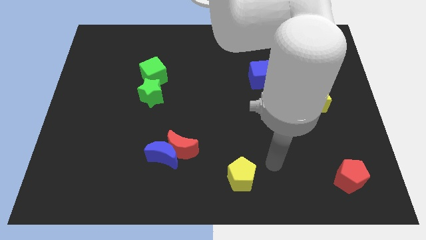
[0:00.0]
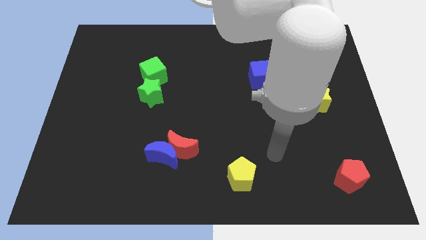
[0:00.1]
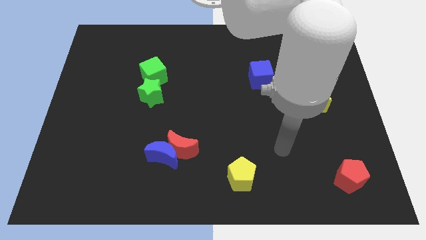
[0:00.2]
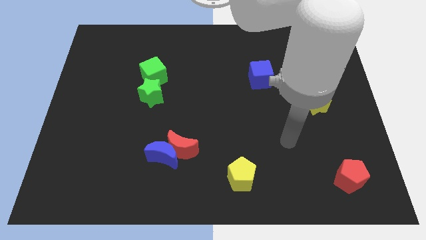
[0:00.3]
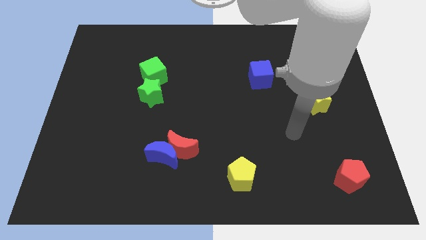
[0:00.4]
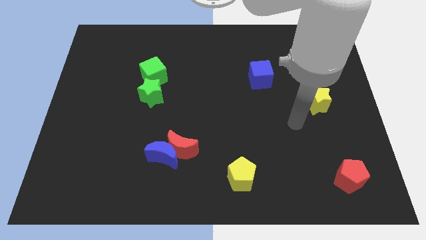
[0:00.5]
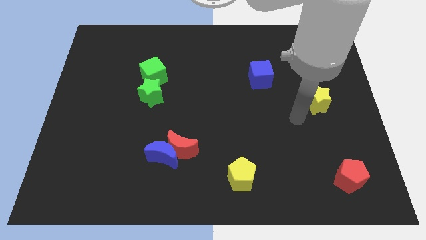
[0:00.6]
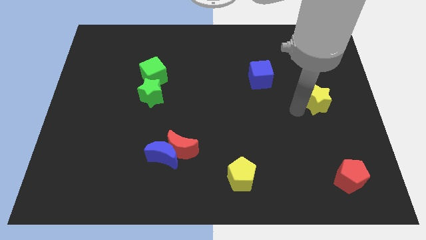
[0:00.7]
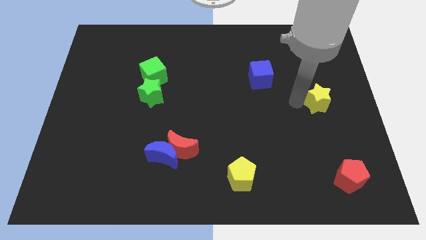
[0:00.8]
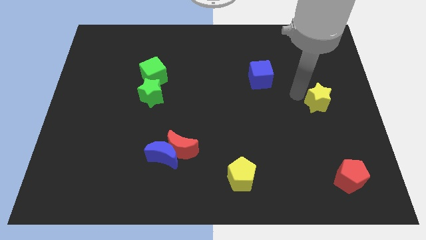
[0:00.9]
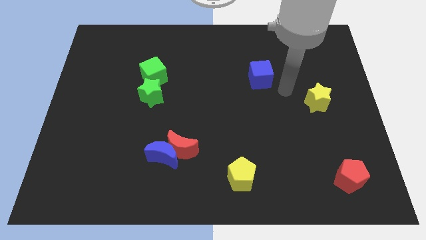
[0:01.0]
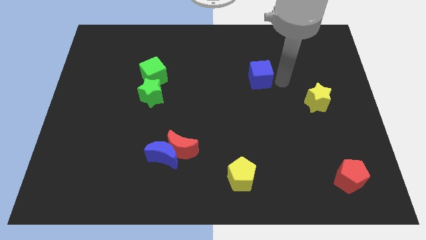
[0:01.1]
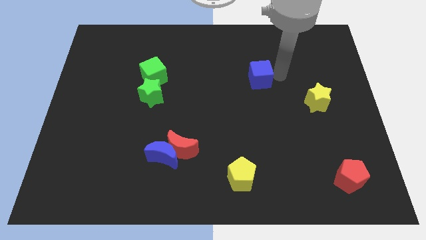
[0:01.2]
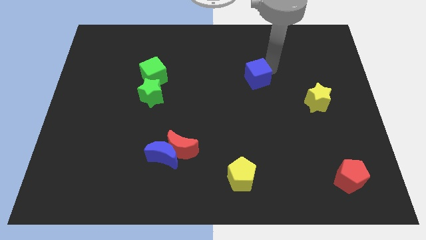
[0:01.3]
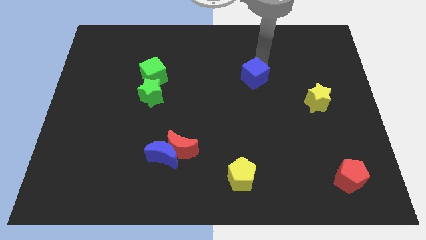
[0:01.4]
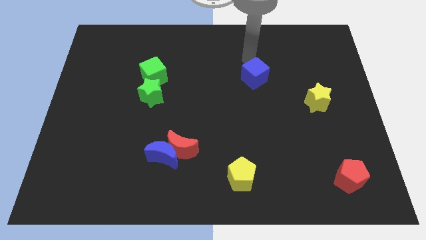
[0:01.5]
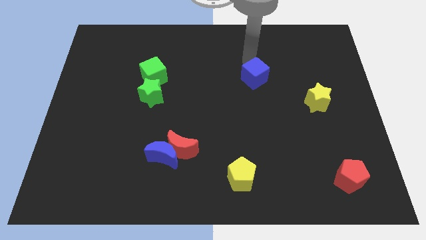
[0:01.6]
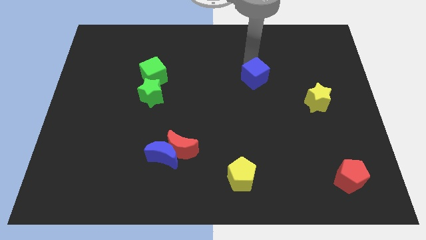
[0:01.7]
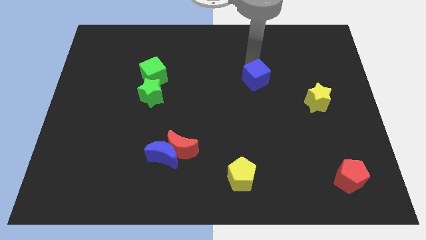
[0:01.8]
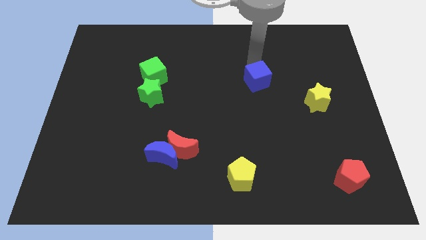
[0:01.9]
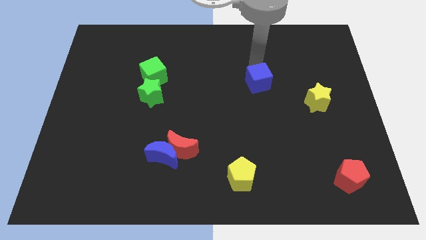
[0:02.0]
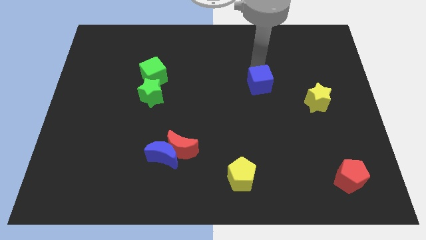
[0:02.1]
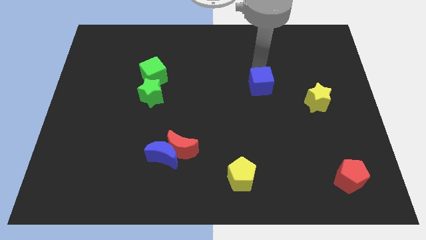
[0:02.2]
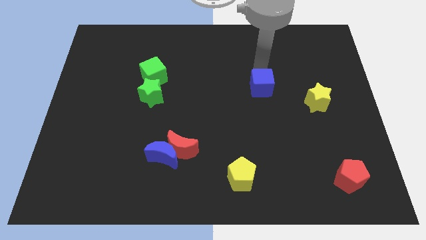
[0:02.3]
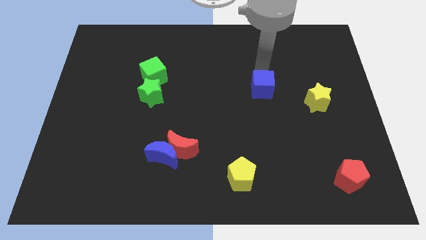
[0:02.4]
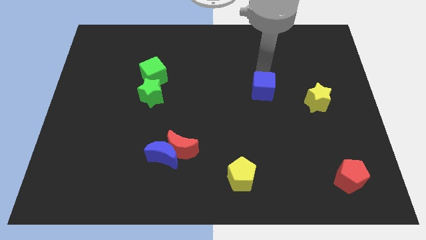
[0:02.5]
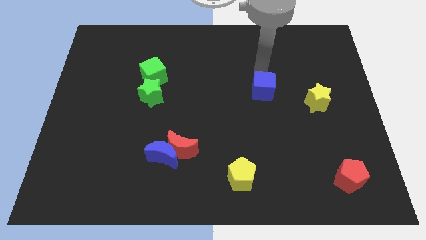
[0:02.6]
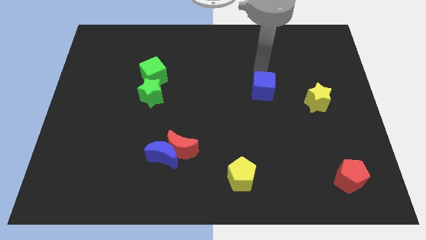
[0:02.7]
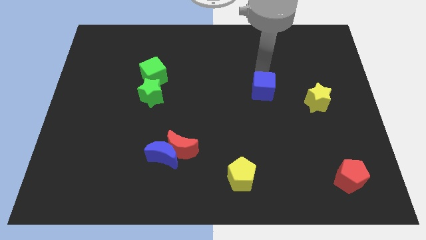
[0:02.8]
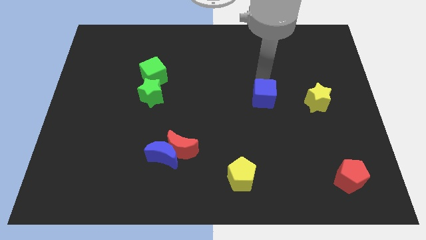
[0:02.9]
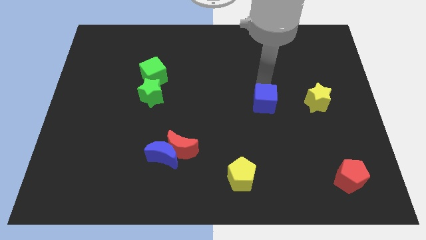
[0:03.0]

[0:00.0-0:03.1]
move the blue cube down a little

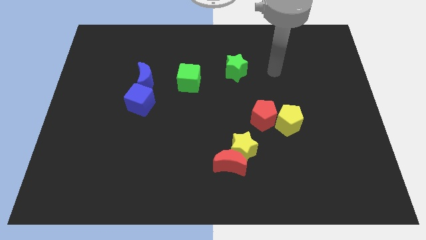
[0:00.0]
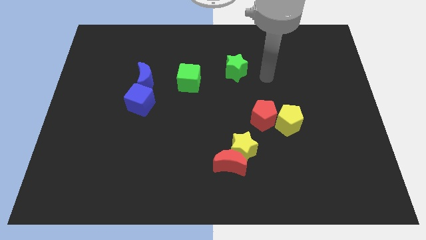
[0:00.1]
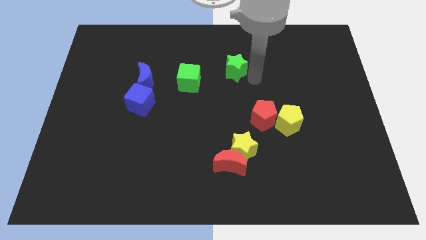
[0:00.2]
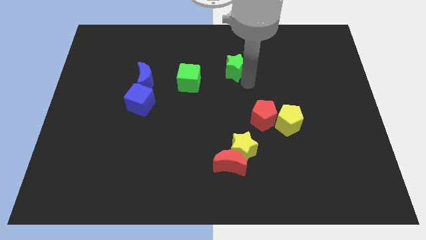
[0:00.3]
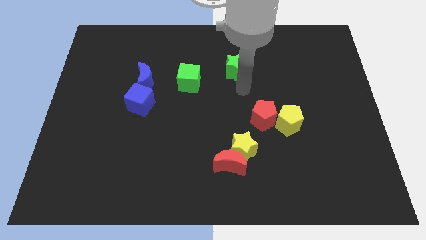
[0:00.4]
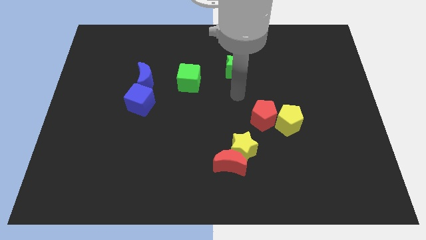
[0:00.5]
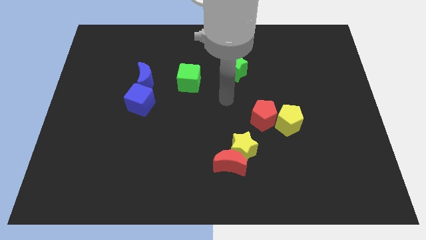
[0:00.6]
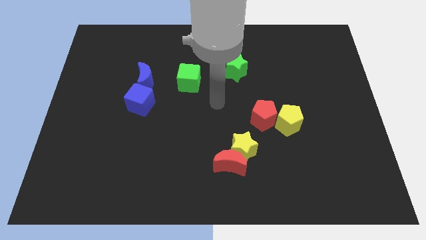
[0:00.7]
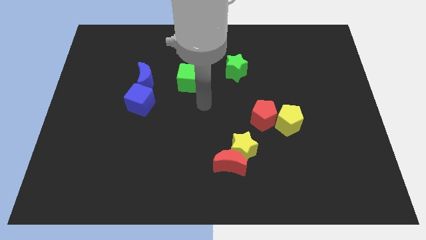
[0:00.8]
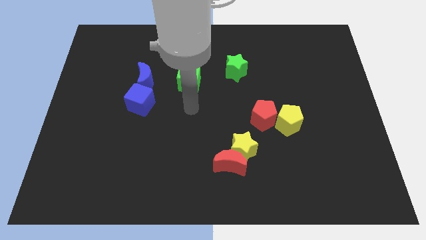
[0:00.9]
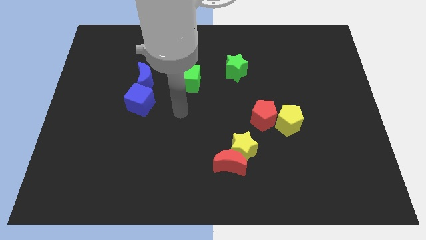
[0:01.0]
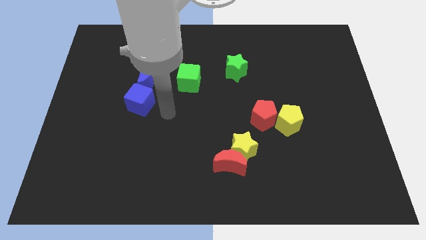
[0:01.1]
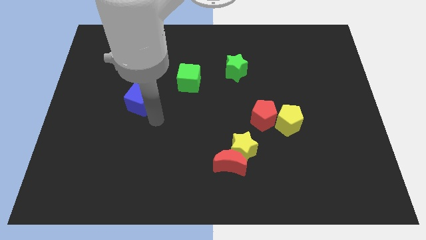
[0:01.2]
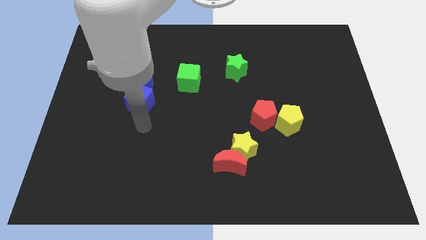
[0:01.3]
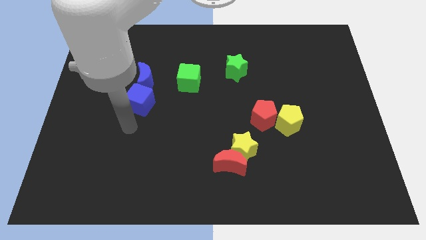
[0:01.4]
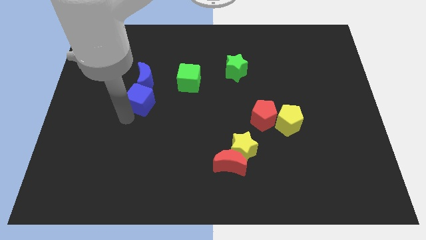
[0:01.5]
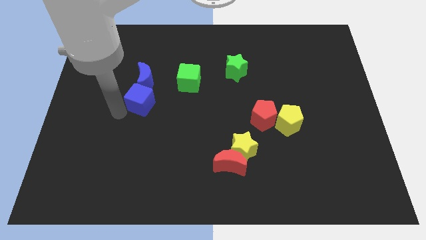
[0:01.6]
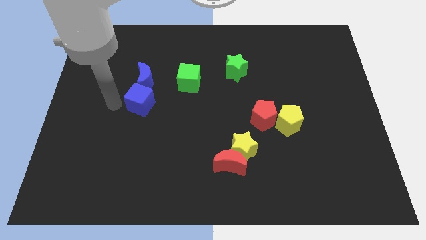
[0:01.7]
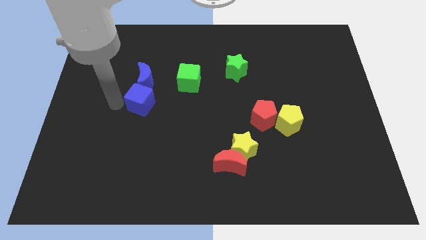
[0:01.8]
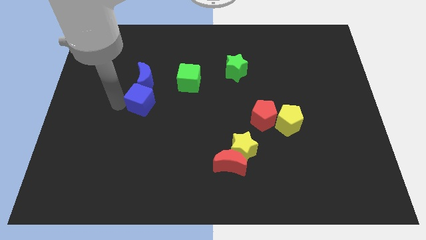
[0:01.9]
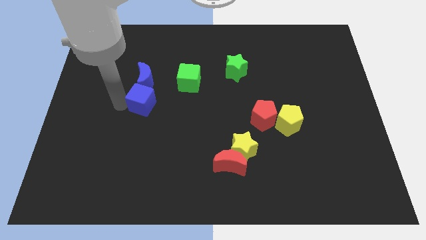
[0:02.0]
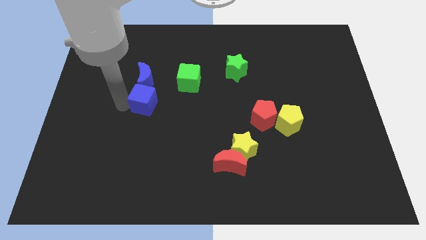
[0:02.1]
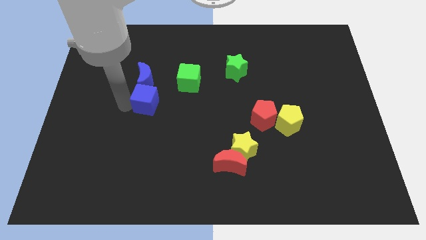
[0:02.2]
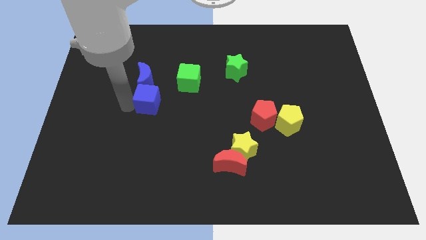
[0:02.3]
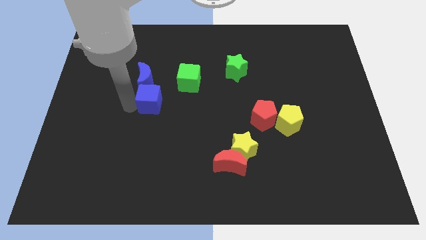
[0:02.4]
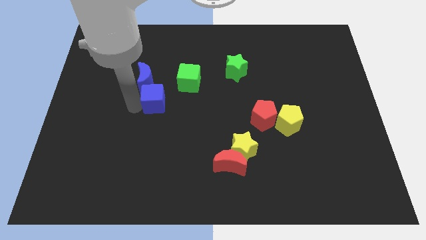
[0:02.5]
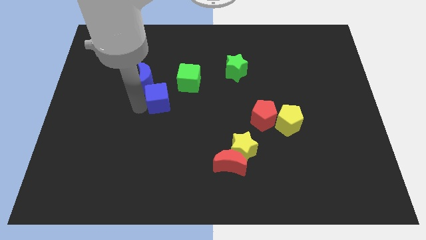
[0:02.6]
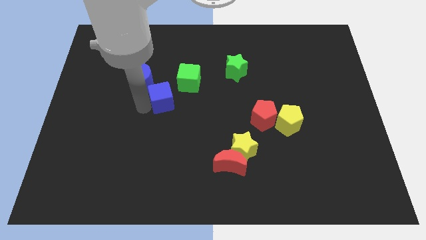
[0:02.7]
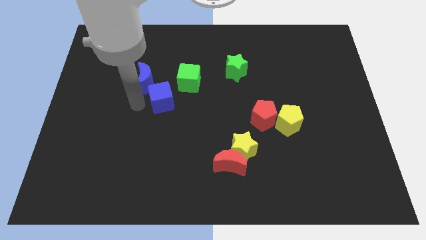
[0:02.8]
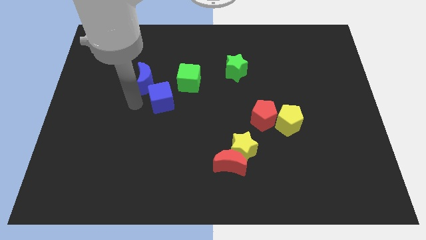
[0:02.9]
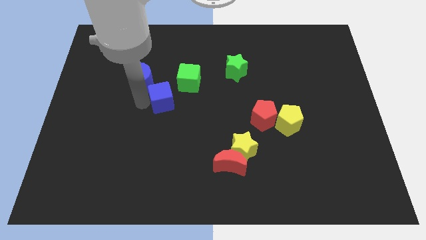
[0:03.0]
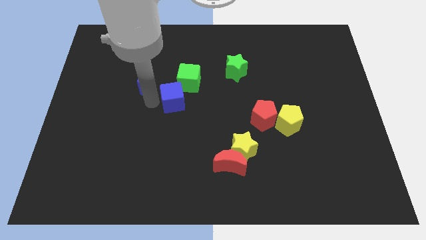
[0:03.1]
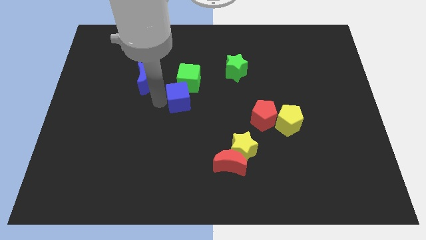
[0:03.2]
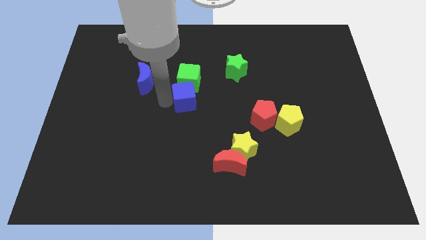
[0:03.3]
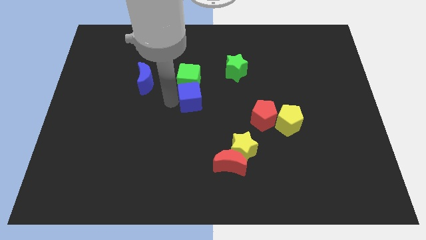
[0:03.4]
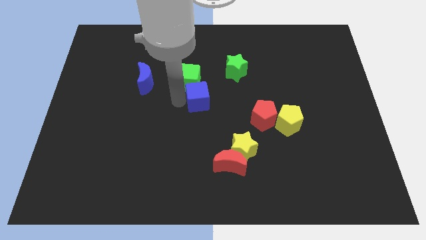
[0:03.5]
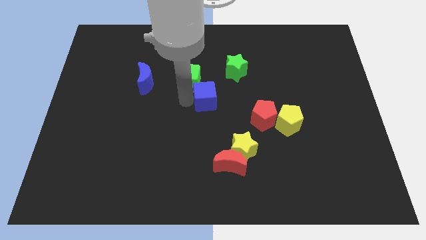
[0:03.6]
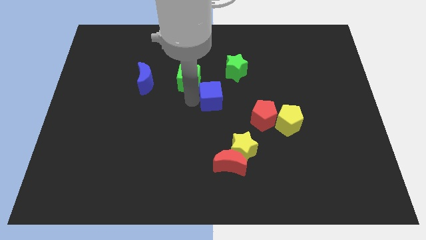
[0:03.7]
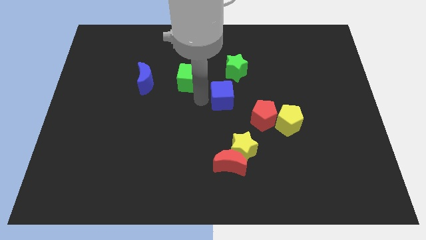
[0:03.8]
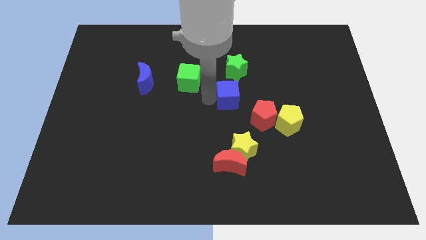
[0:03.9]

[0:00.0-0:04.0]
slide the blue cube right

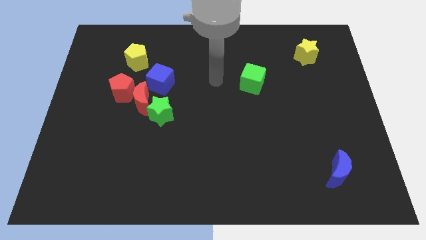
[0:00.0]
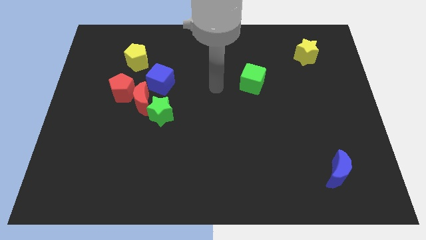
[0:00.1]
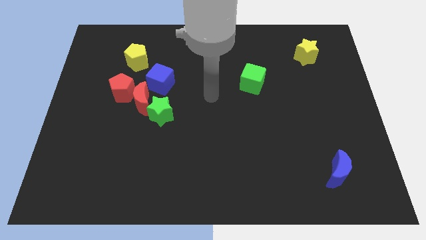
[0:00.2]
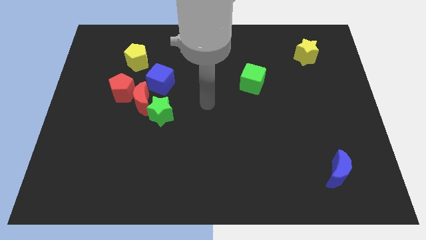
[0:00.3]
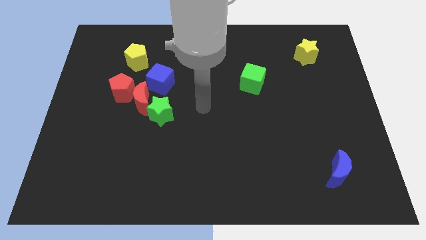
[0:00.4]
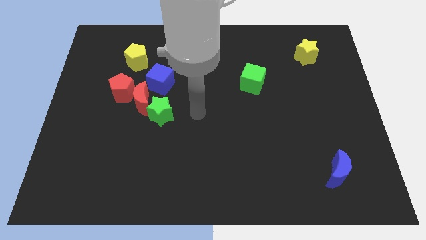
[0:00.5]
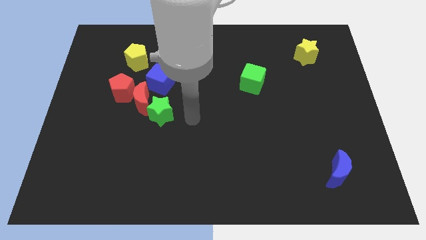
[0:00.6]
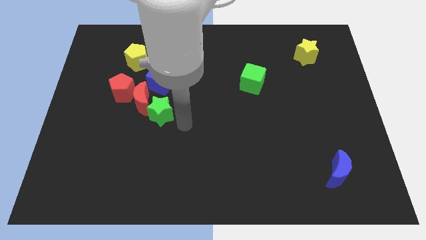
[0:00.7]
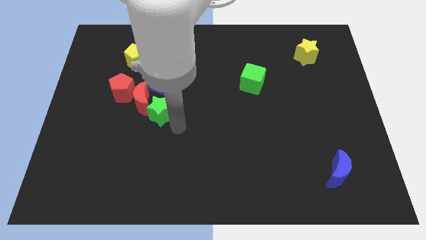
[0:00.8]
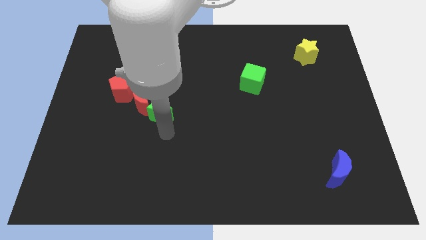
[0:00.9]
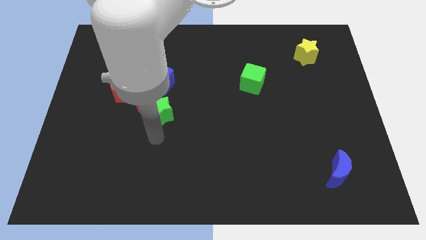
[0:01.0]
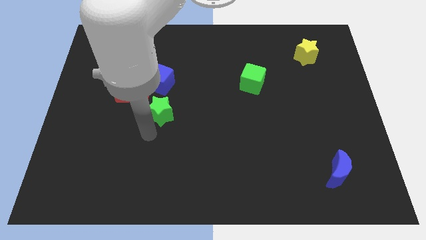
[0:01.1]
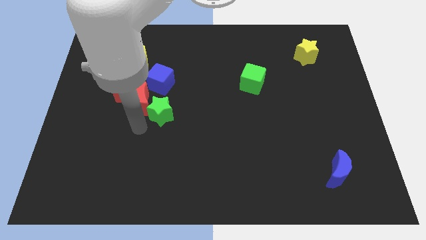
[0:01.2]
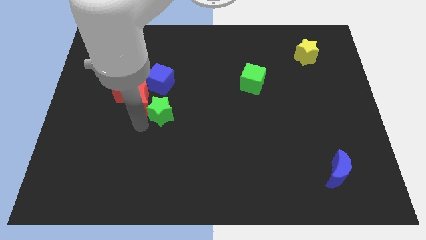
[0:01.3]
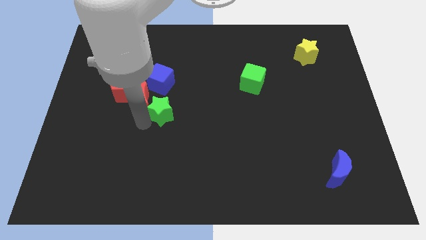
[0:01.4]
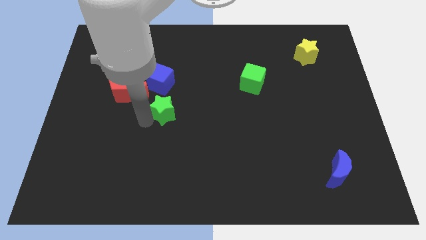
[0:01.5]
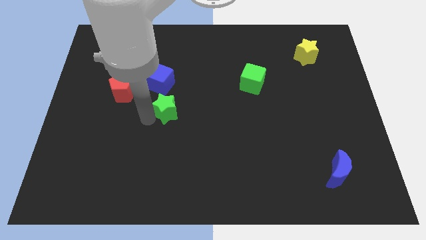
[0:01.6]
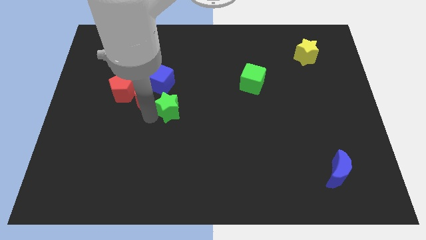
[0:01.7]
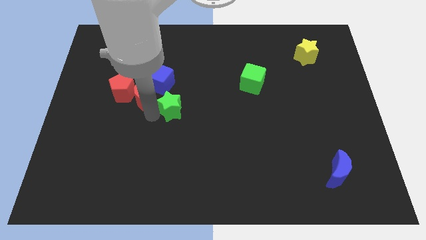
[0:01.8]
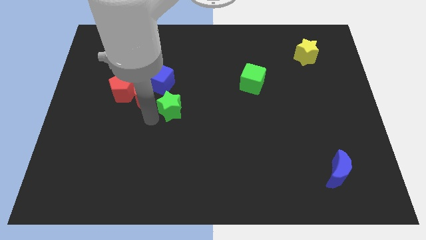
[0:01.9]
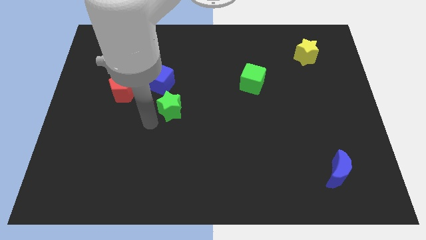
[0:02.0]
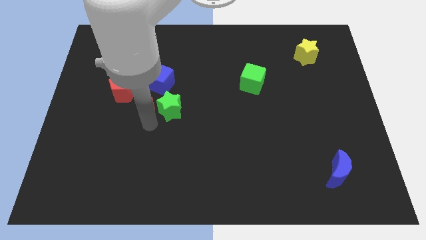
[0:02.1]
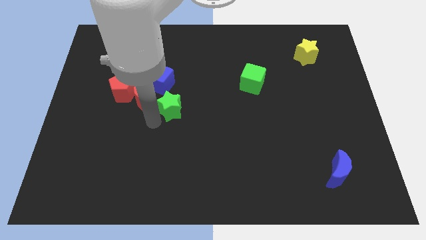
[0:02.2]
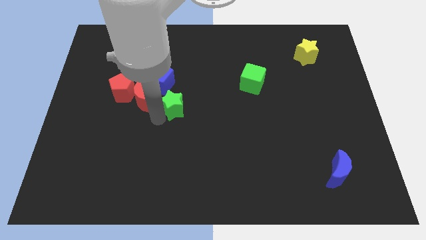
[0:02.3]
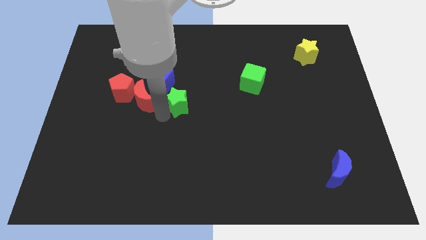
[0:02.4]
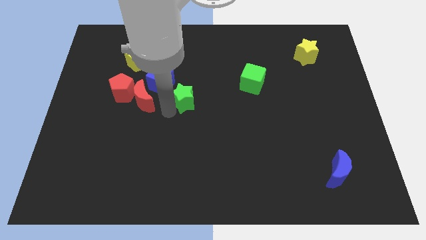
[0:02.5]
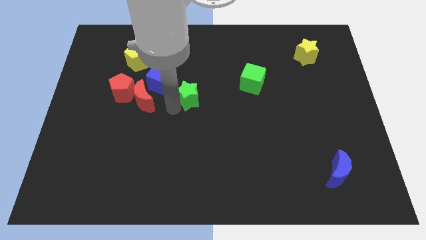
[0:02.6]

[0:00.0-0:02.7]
slide the green star a little bit upwards and right diagonally
